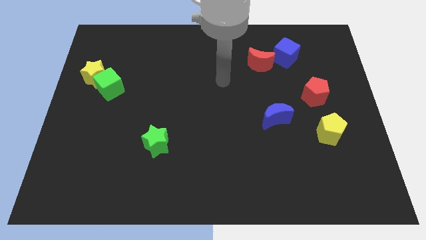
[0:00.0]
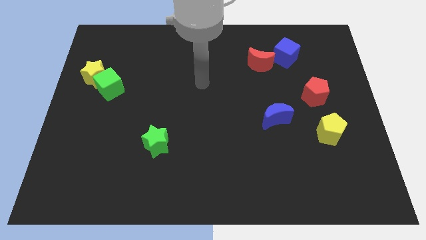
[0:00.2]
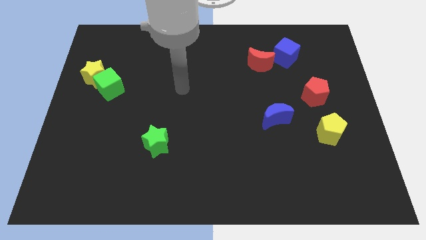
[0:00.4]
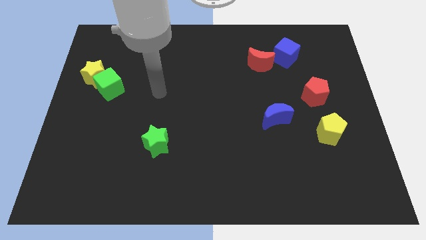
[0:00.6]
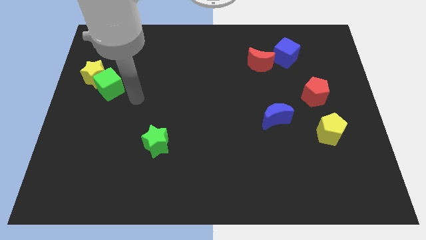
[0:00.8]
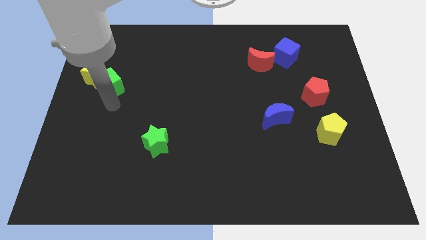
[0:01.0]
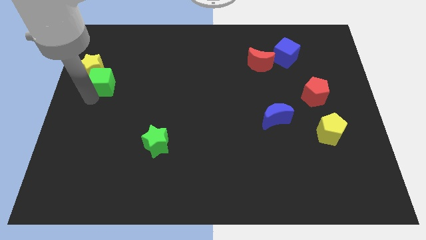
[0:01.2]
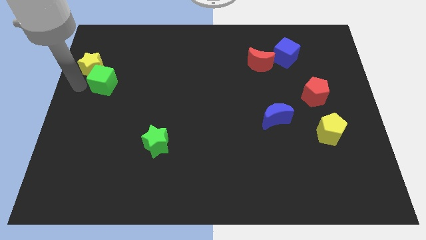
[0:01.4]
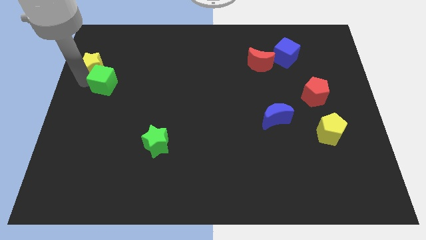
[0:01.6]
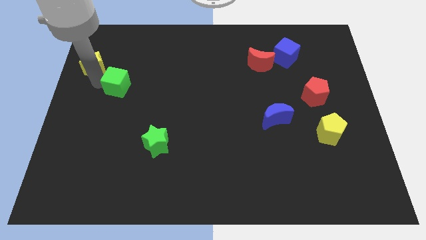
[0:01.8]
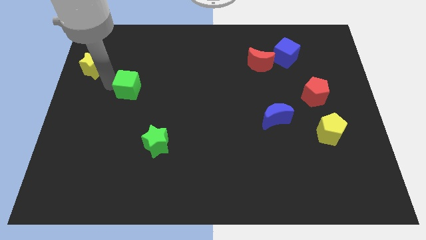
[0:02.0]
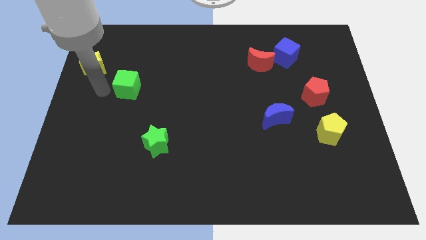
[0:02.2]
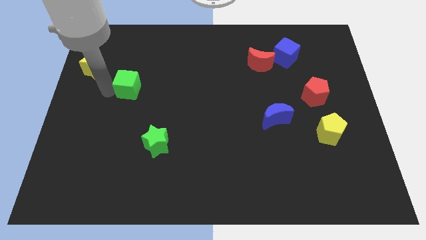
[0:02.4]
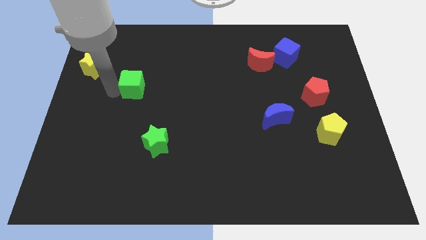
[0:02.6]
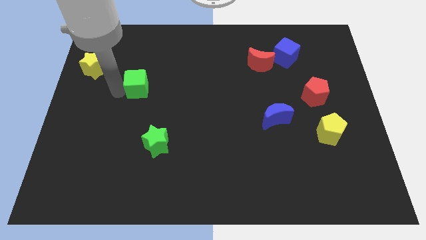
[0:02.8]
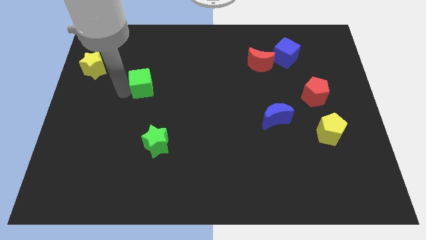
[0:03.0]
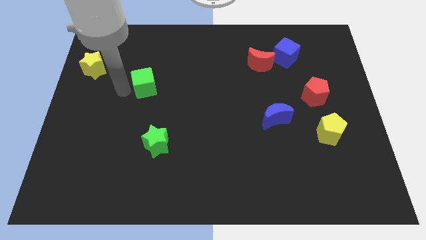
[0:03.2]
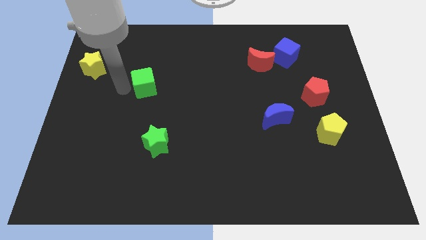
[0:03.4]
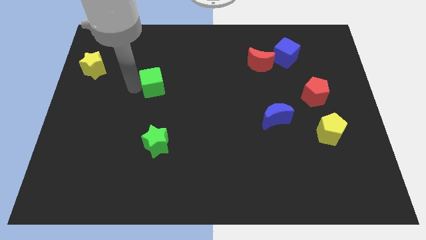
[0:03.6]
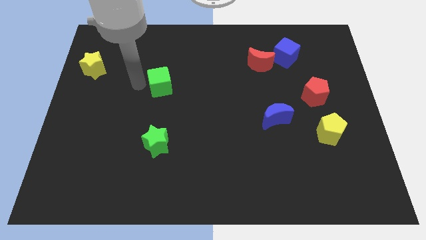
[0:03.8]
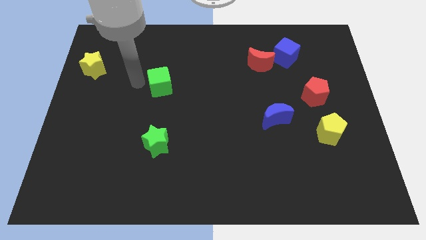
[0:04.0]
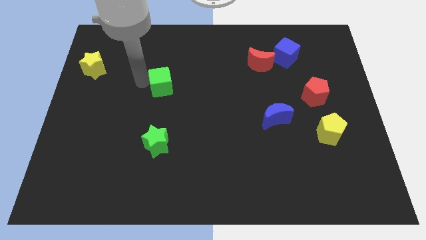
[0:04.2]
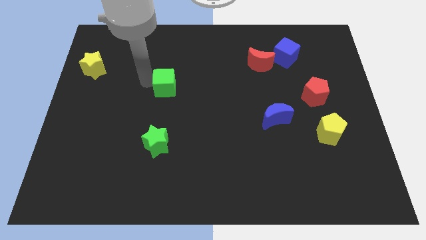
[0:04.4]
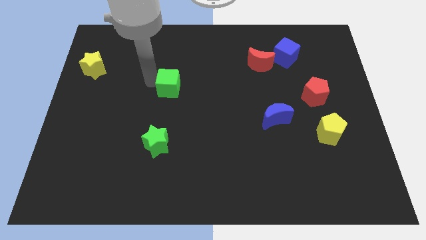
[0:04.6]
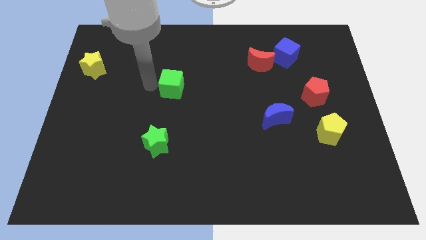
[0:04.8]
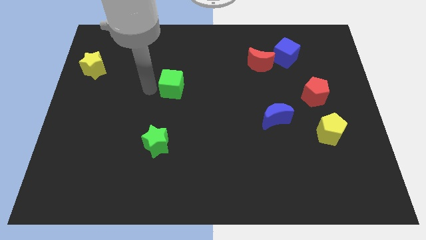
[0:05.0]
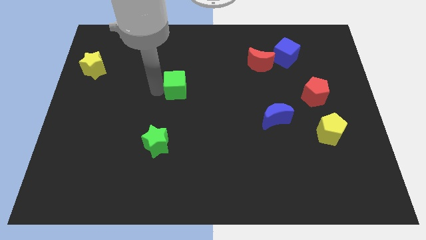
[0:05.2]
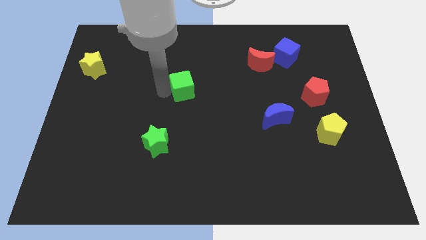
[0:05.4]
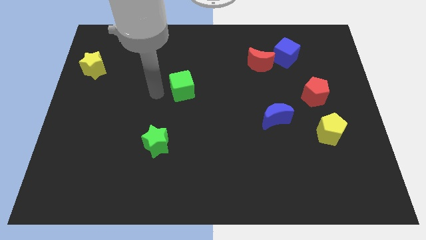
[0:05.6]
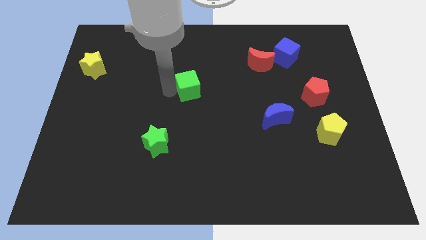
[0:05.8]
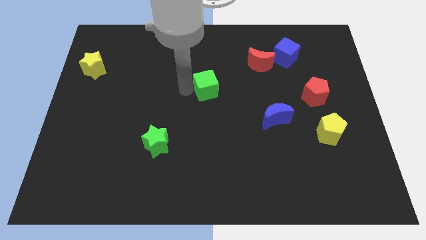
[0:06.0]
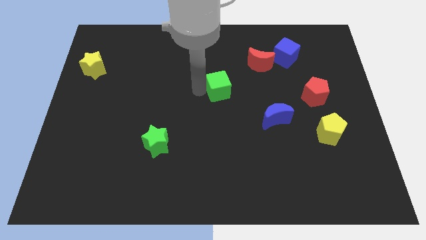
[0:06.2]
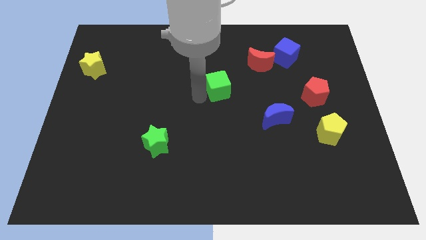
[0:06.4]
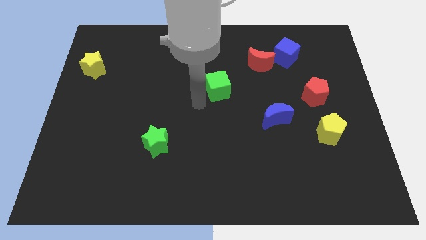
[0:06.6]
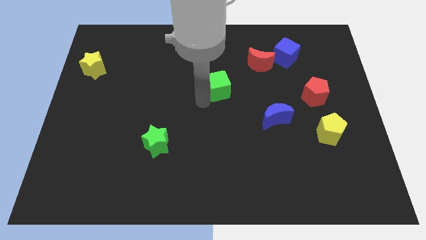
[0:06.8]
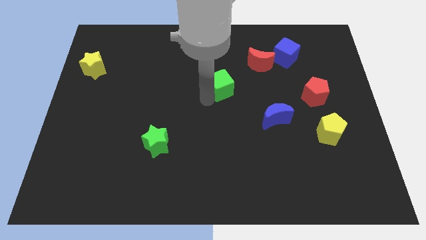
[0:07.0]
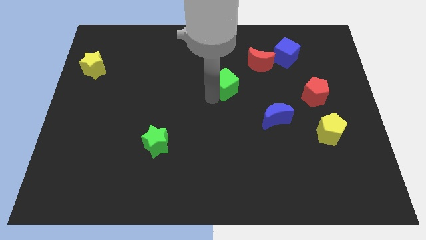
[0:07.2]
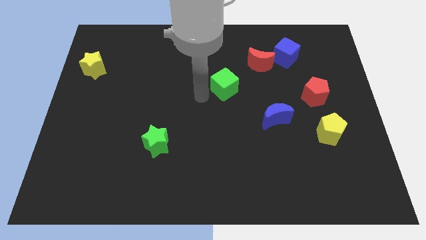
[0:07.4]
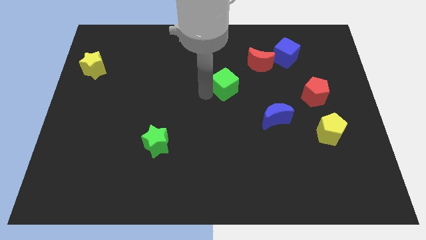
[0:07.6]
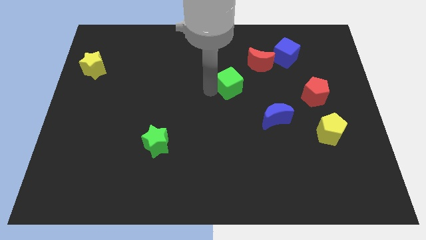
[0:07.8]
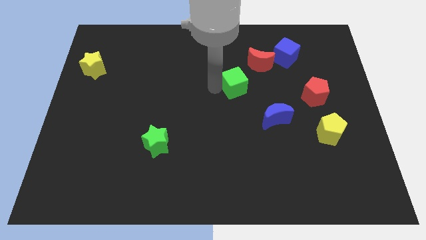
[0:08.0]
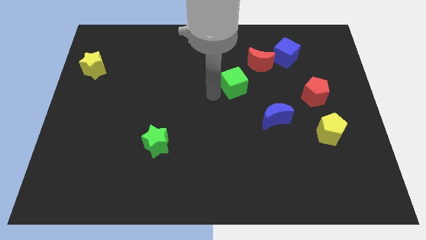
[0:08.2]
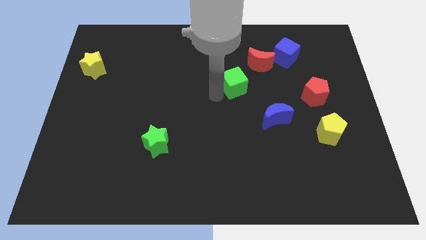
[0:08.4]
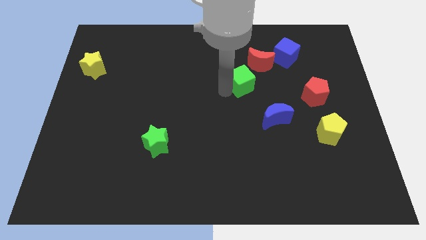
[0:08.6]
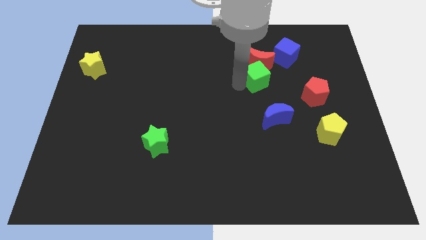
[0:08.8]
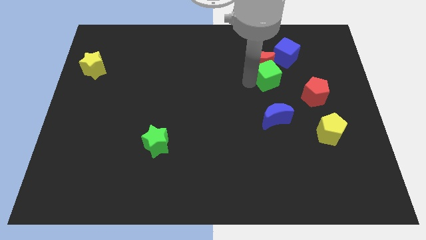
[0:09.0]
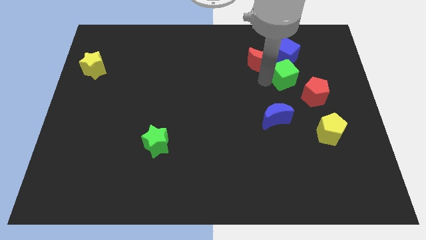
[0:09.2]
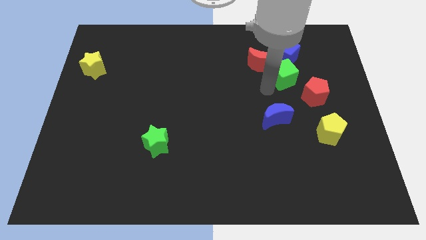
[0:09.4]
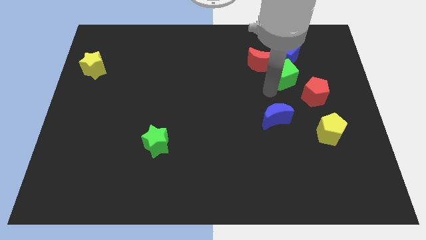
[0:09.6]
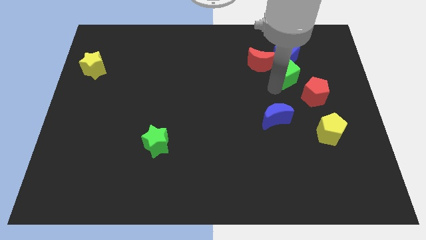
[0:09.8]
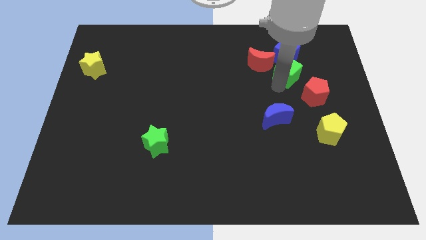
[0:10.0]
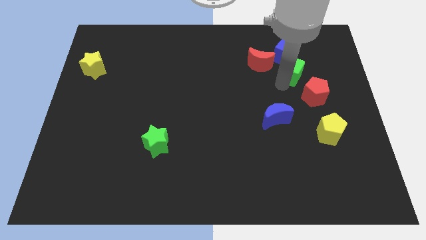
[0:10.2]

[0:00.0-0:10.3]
push the green cube above the red pentagon

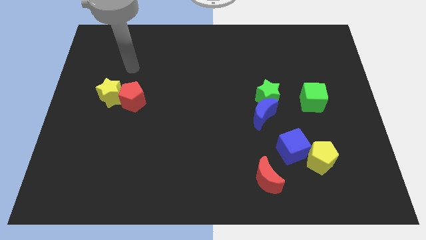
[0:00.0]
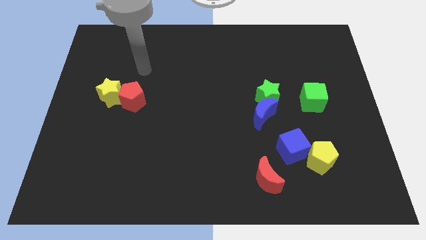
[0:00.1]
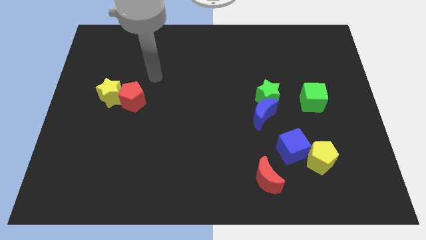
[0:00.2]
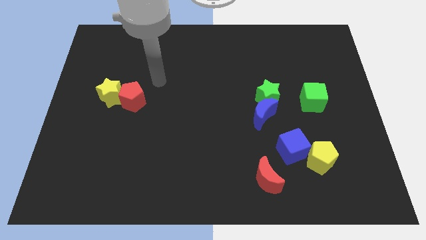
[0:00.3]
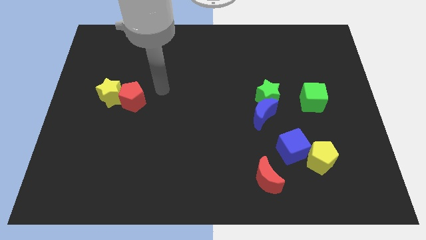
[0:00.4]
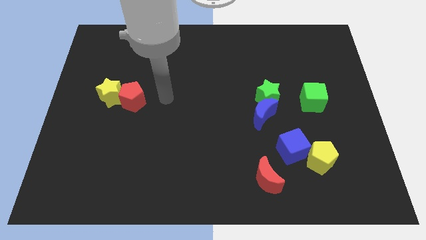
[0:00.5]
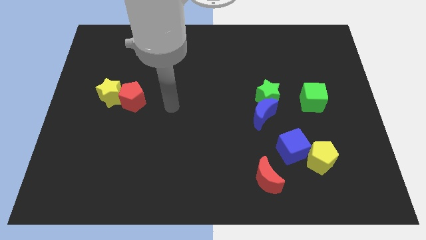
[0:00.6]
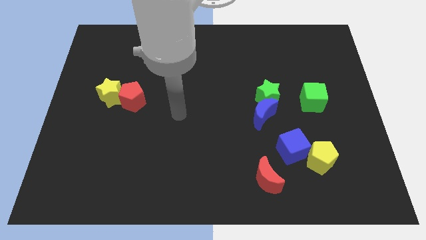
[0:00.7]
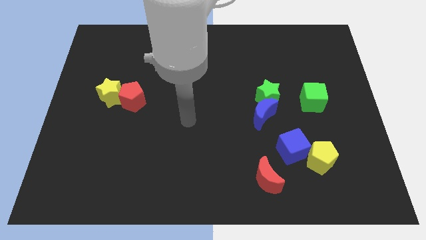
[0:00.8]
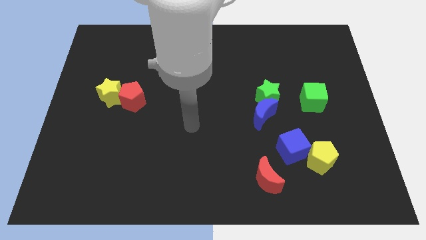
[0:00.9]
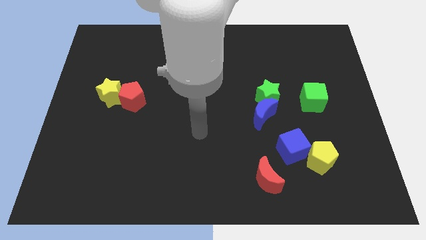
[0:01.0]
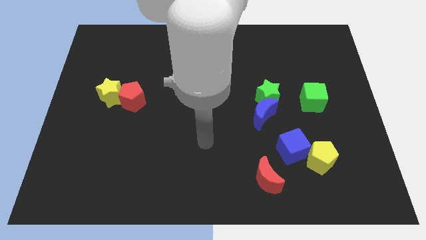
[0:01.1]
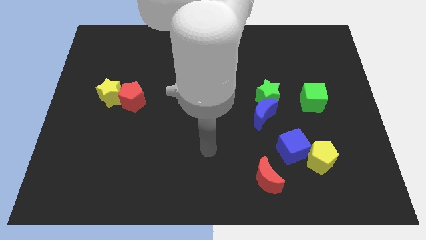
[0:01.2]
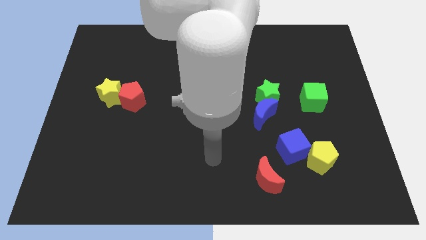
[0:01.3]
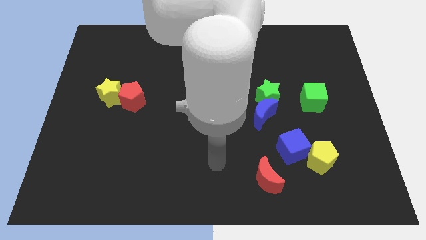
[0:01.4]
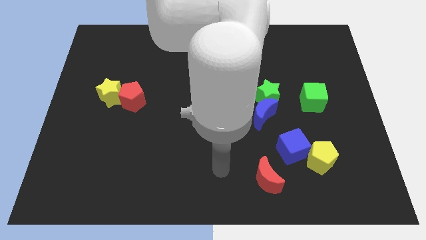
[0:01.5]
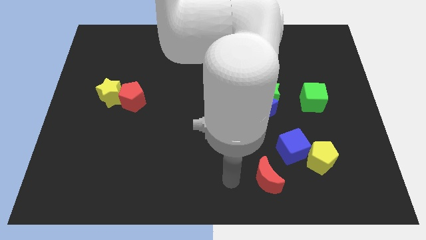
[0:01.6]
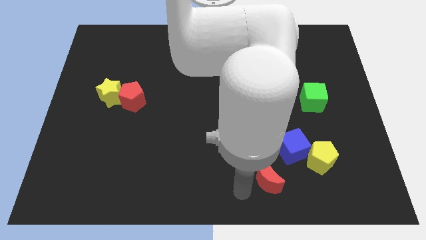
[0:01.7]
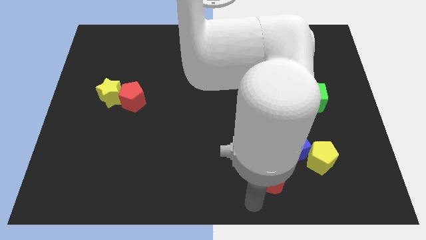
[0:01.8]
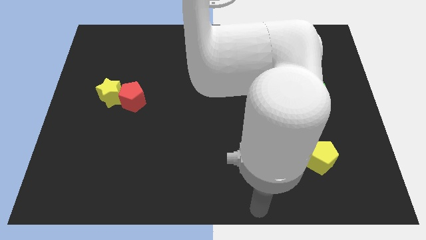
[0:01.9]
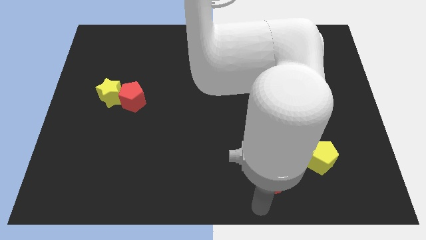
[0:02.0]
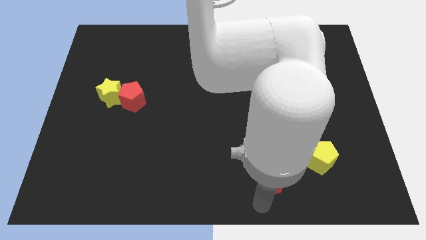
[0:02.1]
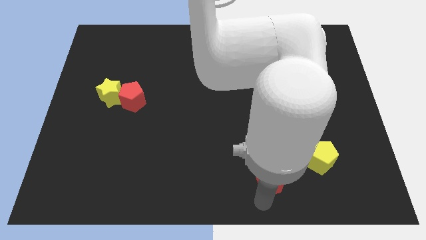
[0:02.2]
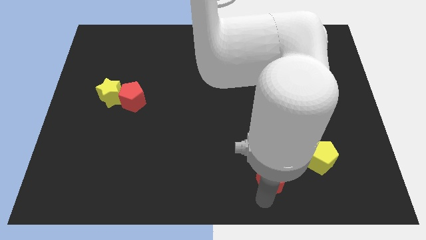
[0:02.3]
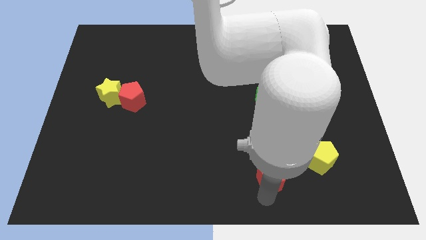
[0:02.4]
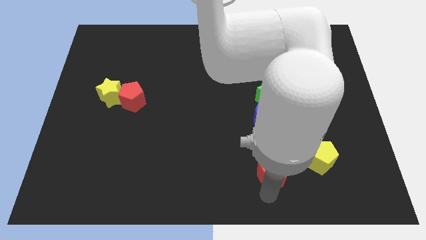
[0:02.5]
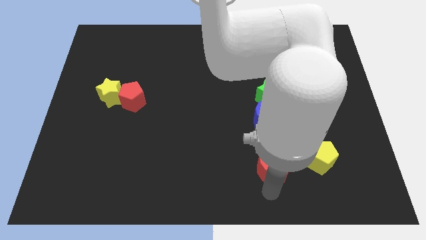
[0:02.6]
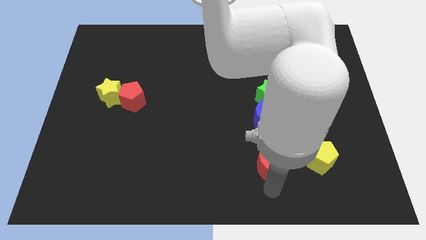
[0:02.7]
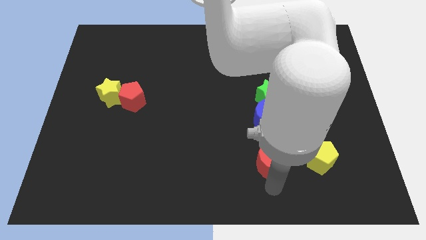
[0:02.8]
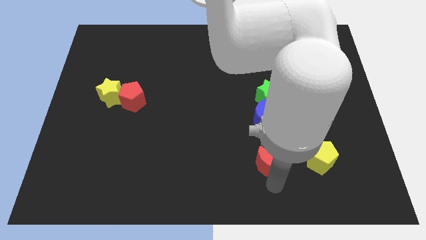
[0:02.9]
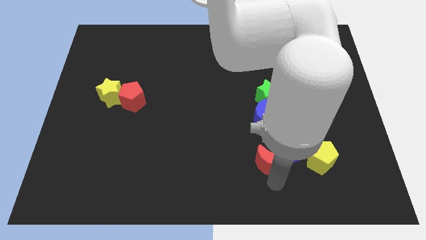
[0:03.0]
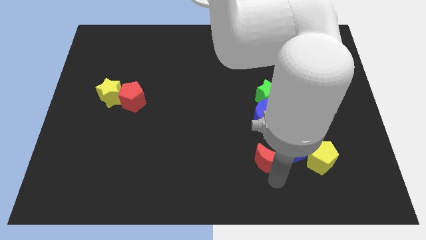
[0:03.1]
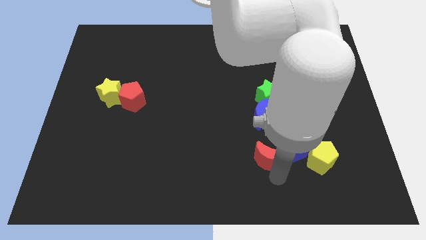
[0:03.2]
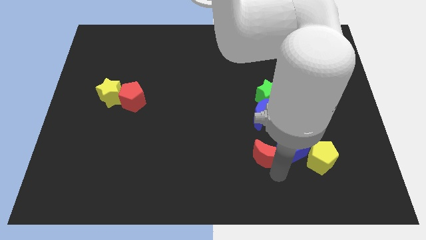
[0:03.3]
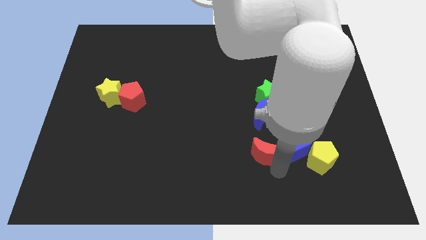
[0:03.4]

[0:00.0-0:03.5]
put the red moon to the bottom of the green star
